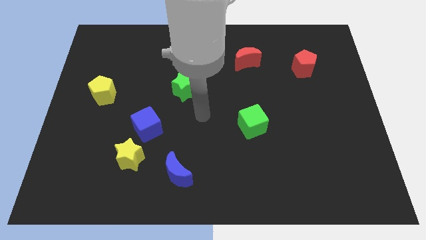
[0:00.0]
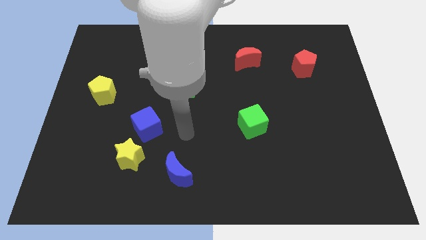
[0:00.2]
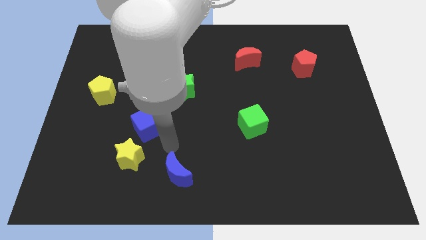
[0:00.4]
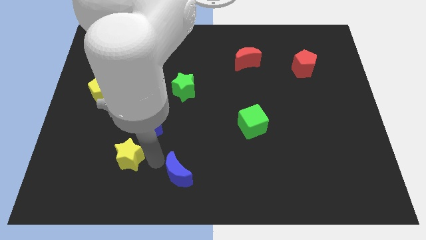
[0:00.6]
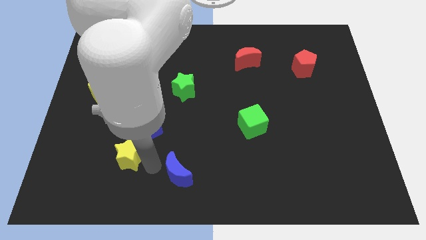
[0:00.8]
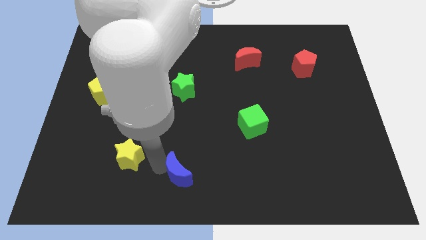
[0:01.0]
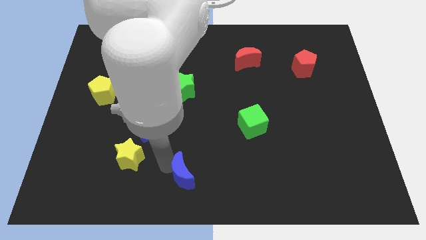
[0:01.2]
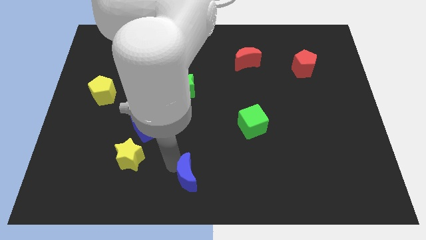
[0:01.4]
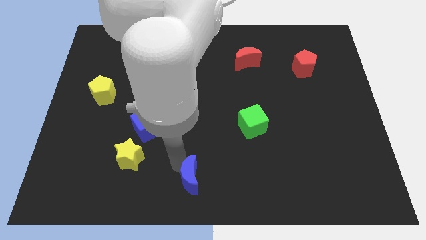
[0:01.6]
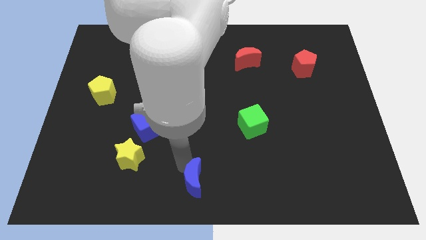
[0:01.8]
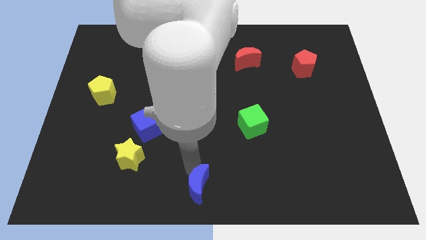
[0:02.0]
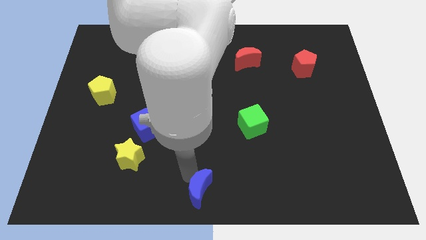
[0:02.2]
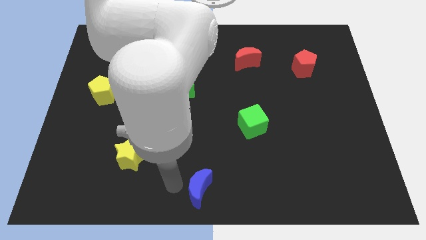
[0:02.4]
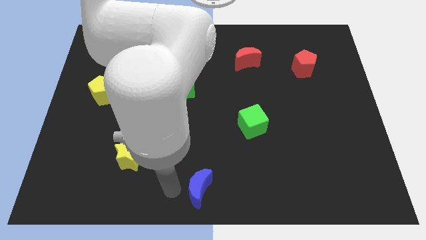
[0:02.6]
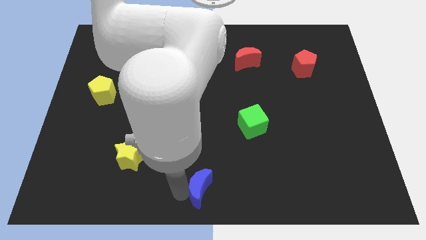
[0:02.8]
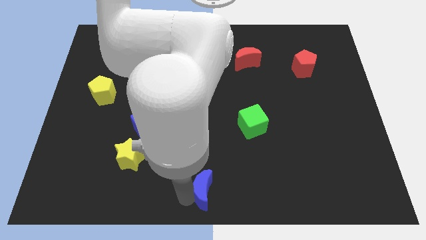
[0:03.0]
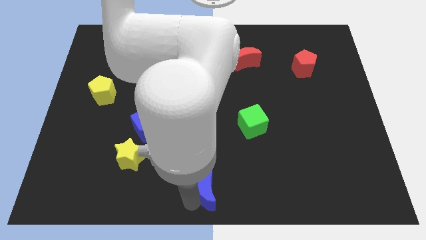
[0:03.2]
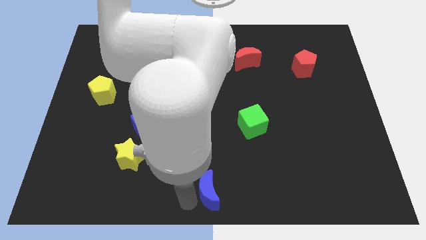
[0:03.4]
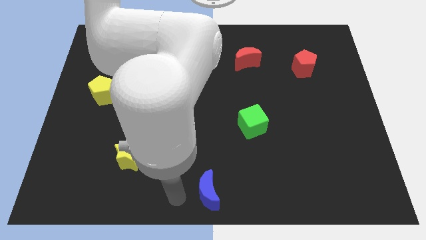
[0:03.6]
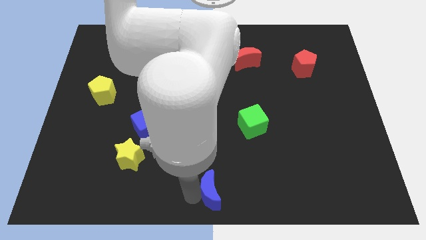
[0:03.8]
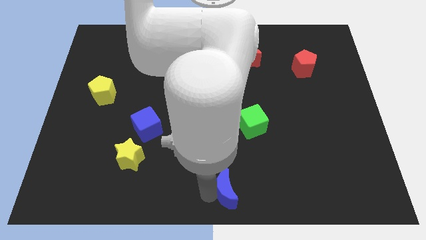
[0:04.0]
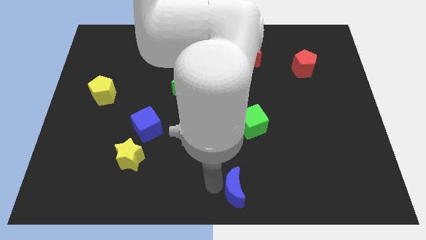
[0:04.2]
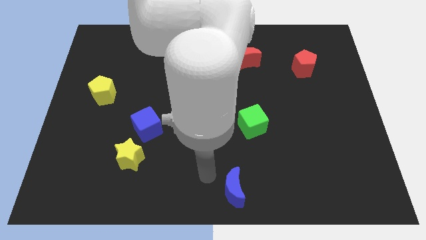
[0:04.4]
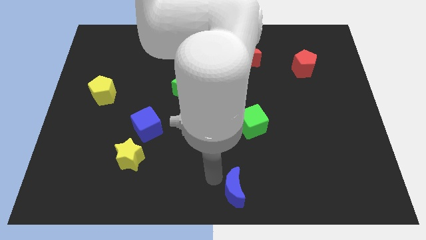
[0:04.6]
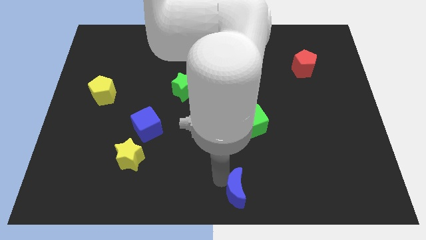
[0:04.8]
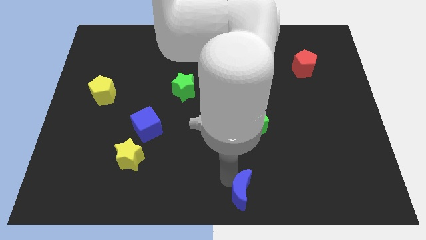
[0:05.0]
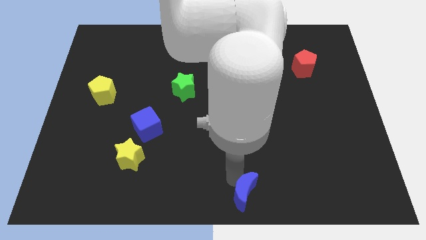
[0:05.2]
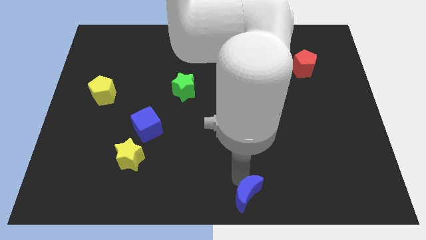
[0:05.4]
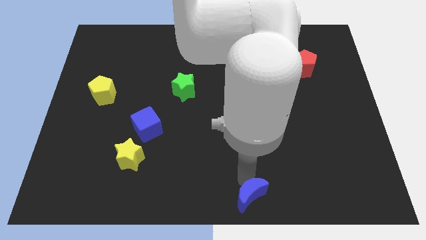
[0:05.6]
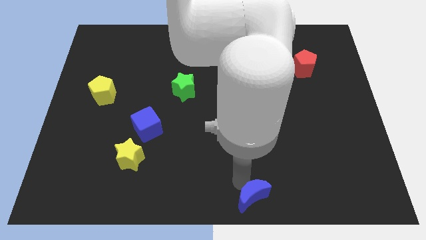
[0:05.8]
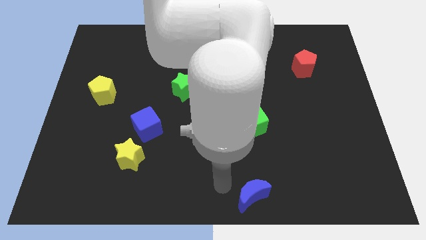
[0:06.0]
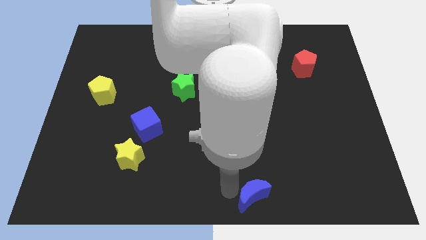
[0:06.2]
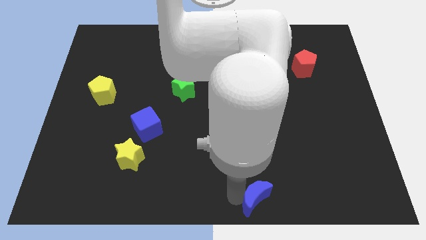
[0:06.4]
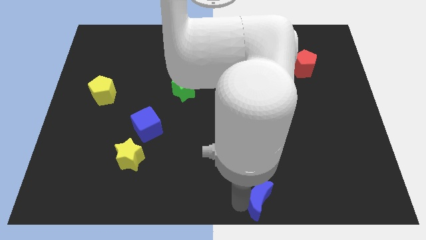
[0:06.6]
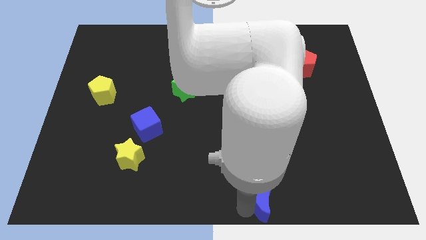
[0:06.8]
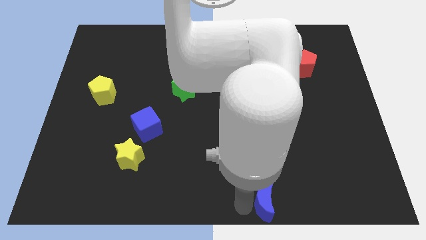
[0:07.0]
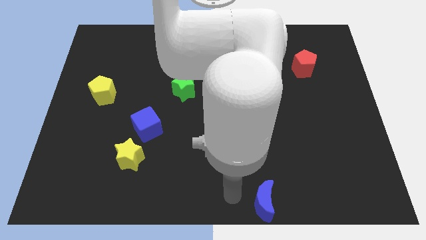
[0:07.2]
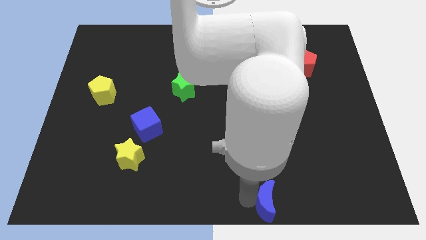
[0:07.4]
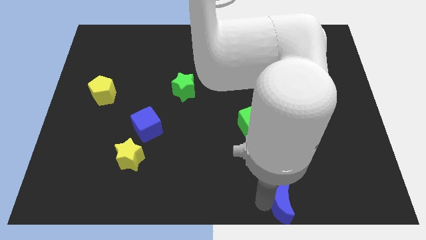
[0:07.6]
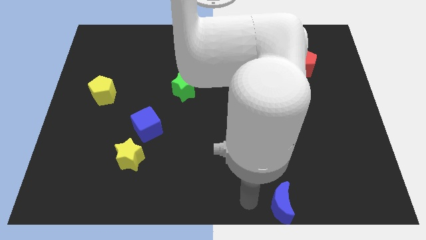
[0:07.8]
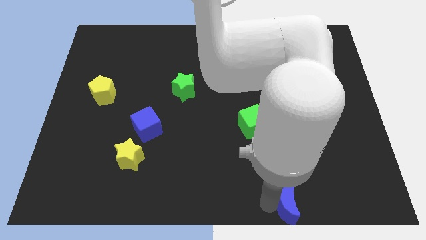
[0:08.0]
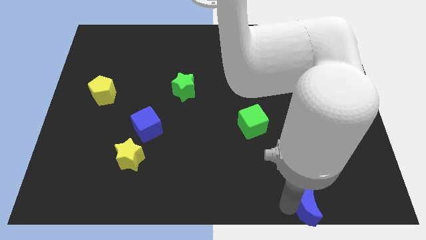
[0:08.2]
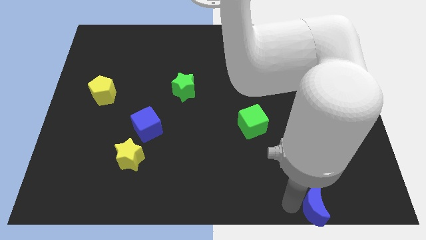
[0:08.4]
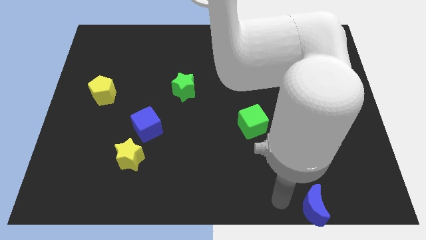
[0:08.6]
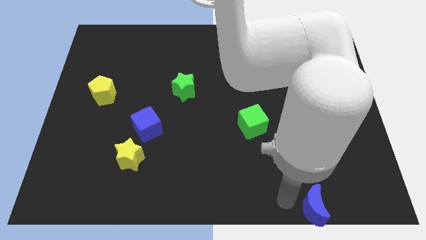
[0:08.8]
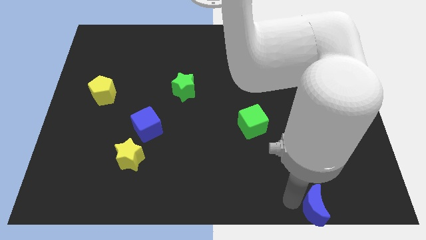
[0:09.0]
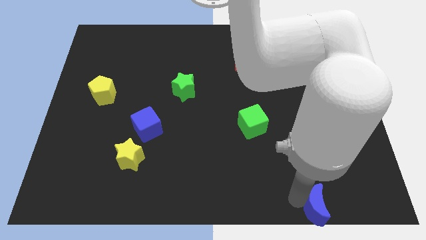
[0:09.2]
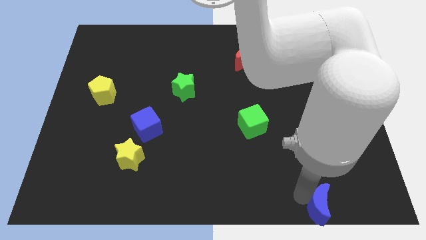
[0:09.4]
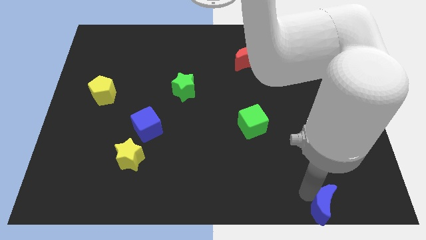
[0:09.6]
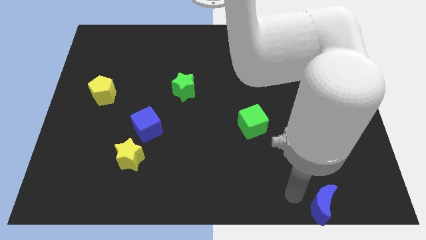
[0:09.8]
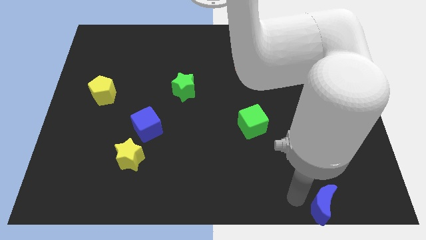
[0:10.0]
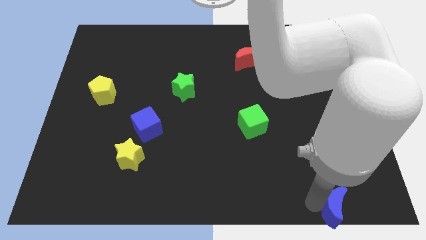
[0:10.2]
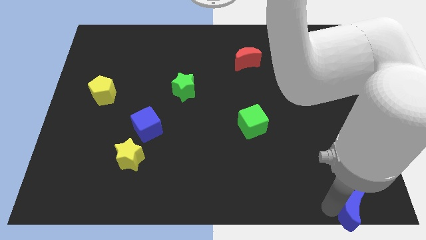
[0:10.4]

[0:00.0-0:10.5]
move the blue moon to the bottom right corner

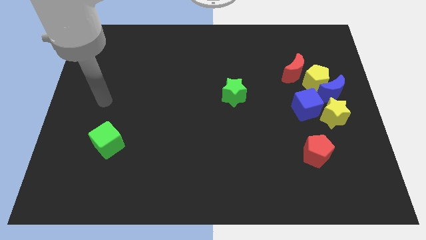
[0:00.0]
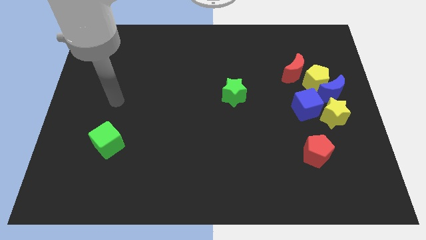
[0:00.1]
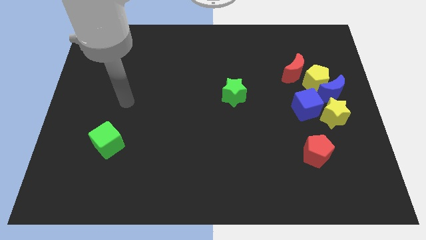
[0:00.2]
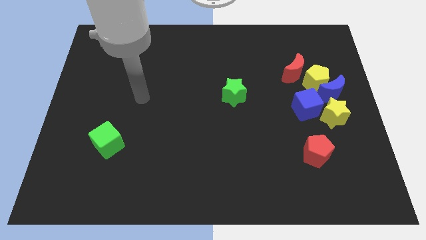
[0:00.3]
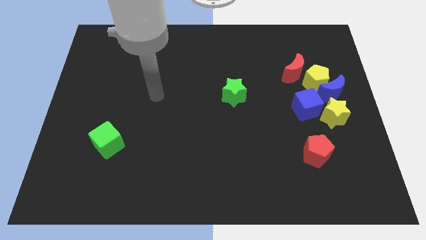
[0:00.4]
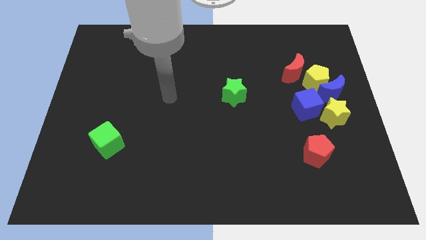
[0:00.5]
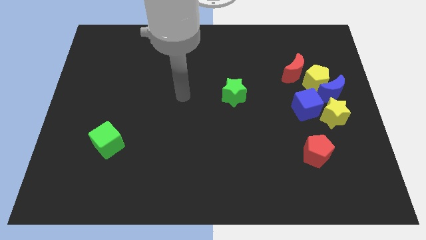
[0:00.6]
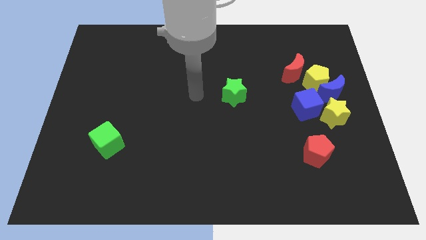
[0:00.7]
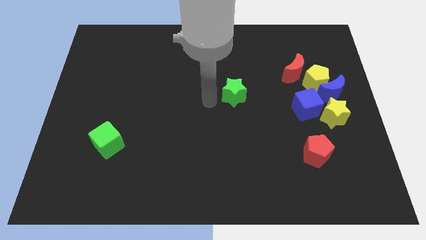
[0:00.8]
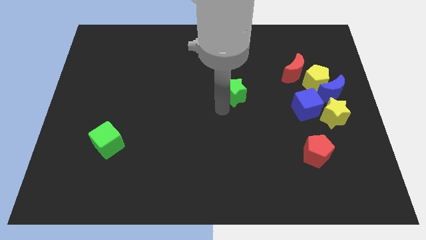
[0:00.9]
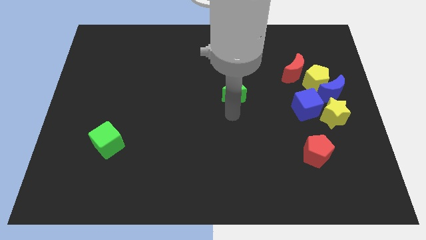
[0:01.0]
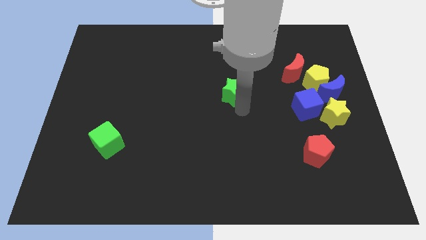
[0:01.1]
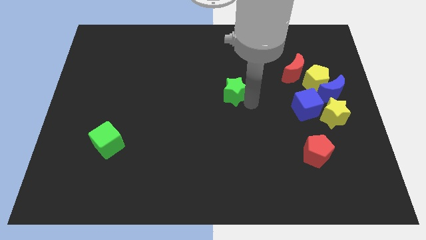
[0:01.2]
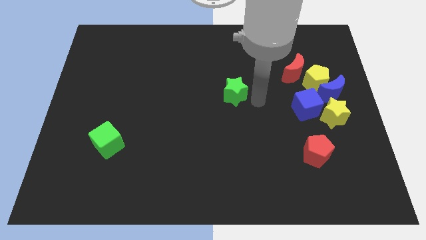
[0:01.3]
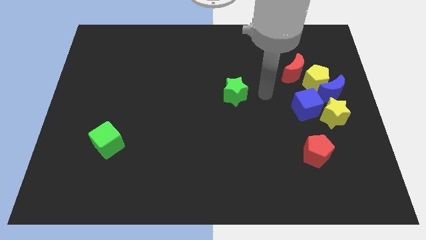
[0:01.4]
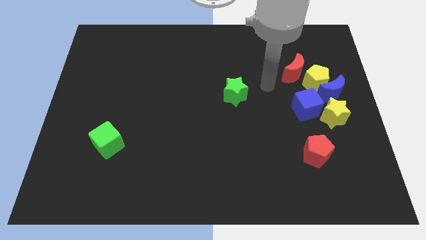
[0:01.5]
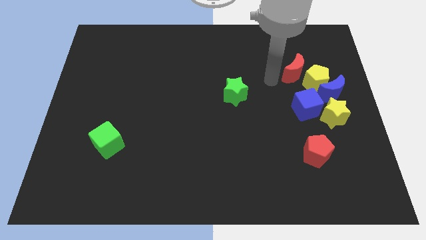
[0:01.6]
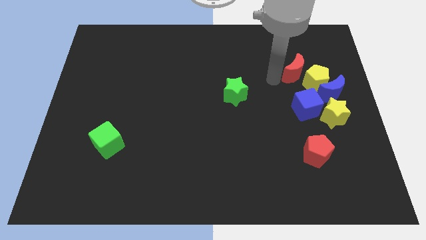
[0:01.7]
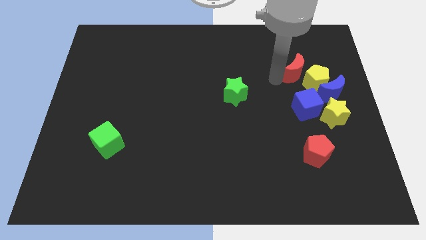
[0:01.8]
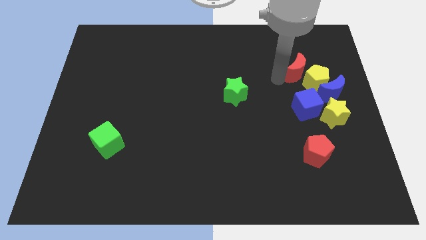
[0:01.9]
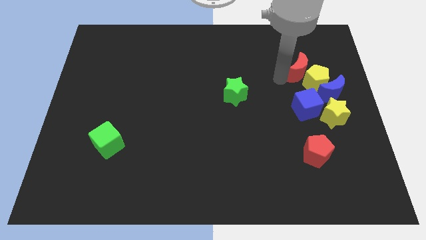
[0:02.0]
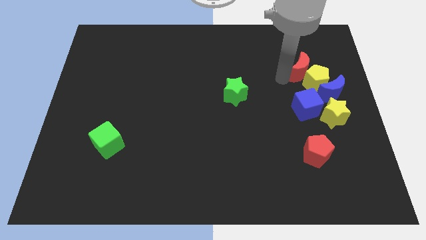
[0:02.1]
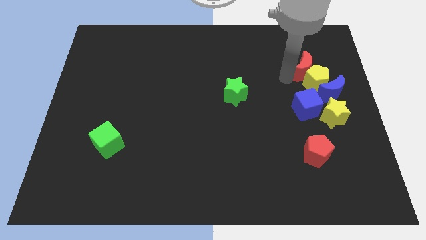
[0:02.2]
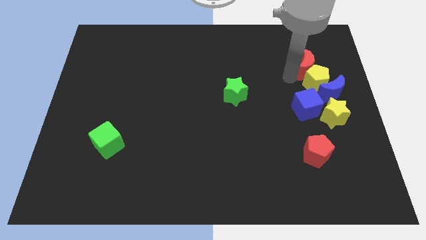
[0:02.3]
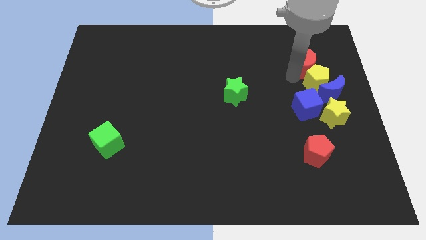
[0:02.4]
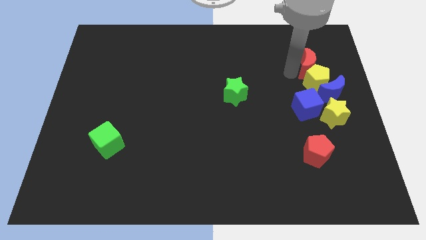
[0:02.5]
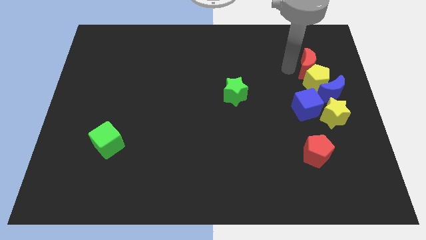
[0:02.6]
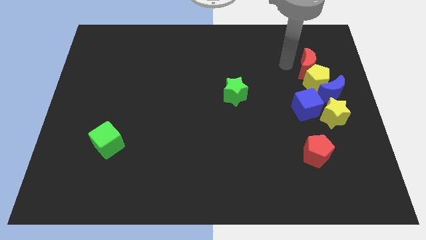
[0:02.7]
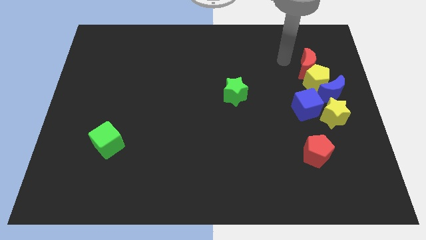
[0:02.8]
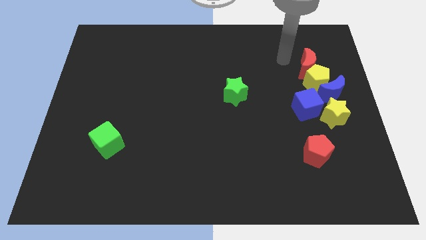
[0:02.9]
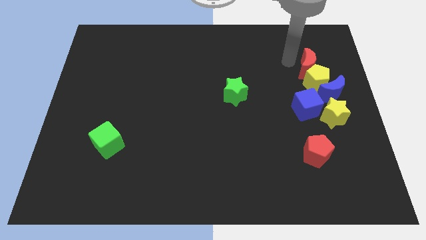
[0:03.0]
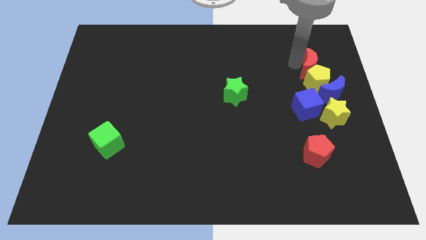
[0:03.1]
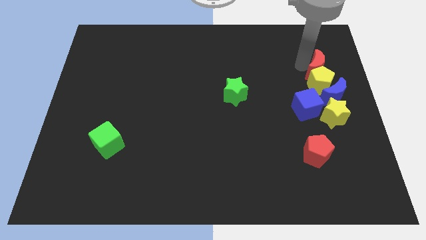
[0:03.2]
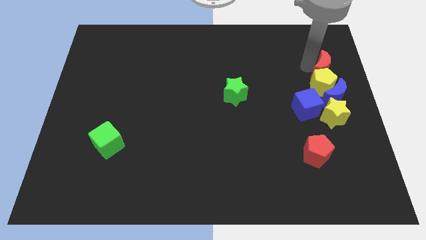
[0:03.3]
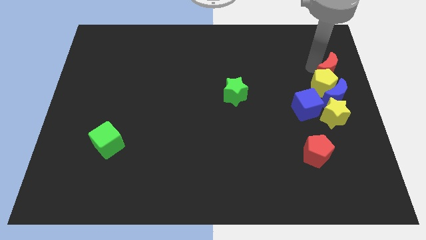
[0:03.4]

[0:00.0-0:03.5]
slide the red moon to the center right
